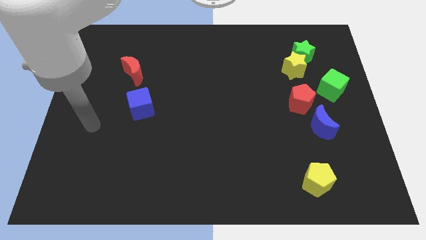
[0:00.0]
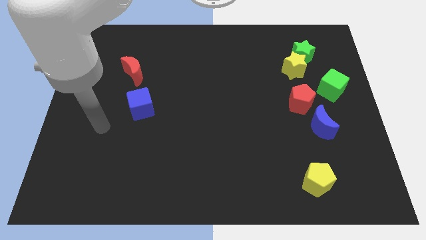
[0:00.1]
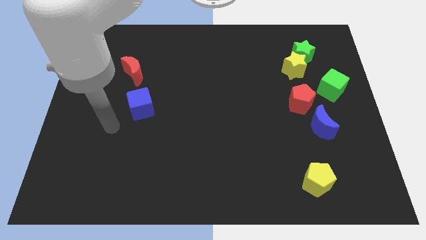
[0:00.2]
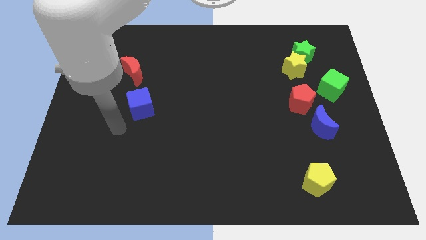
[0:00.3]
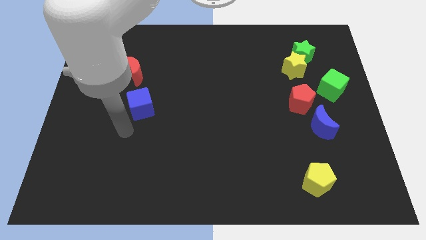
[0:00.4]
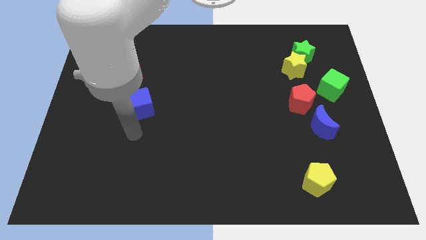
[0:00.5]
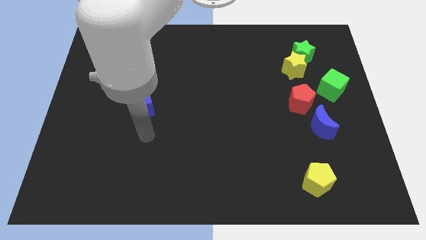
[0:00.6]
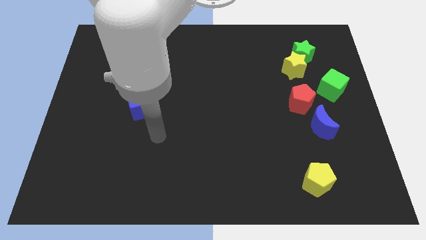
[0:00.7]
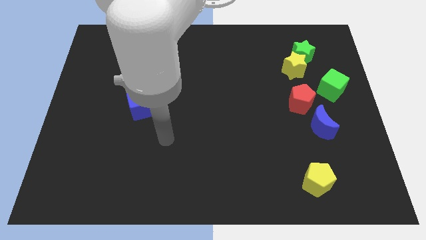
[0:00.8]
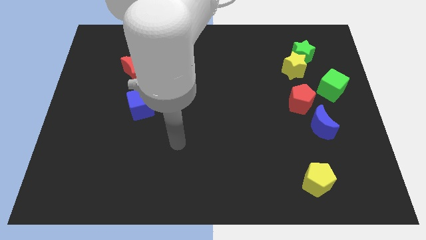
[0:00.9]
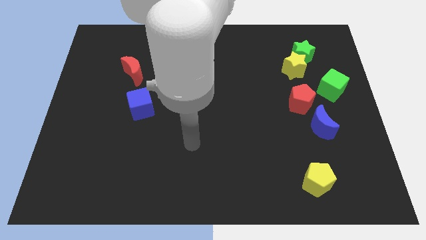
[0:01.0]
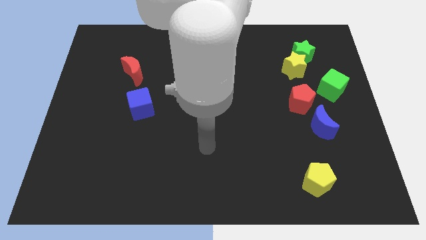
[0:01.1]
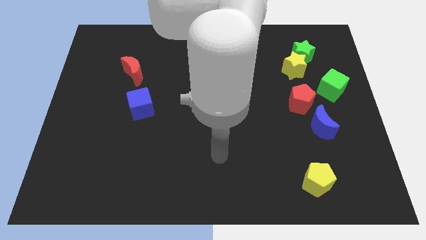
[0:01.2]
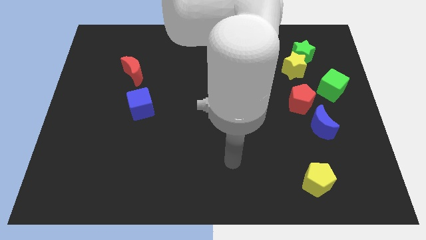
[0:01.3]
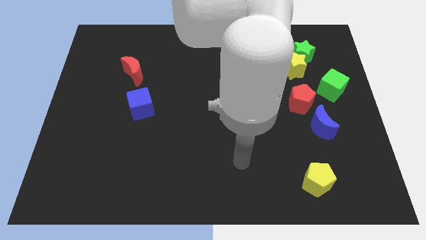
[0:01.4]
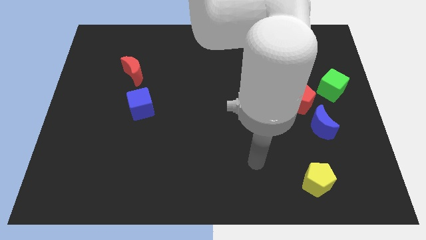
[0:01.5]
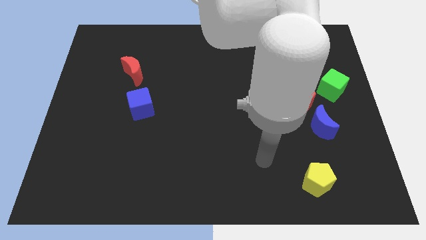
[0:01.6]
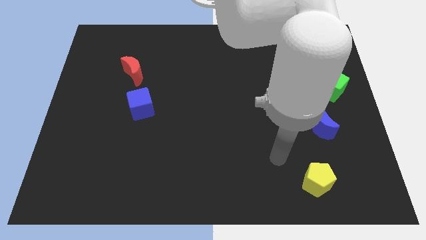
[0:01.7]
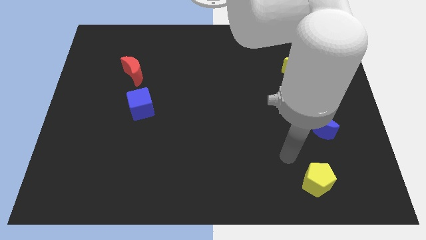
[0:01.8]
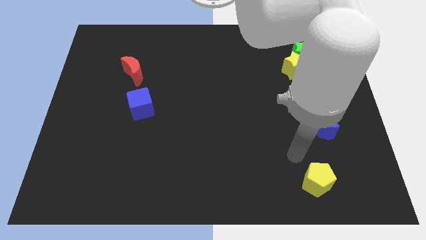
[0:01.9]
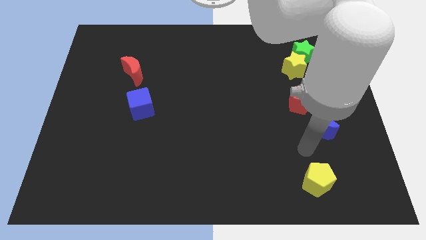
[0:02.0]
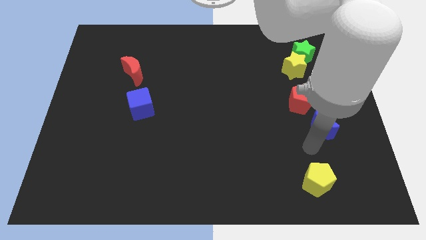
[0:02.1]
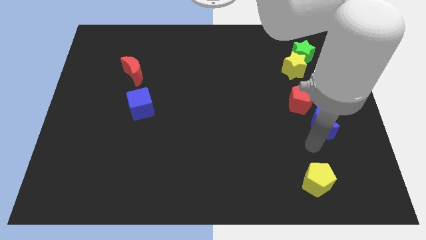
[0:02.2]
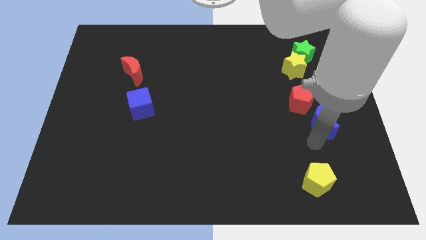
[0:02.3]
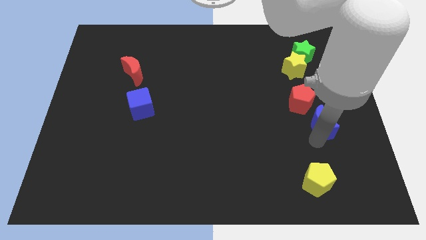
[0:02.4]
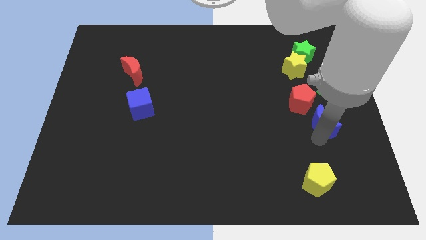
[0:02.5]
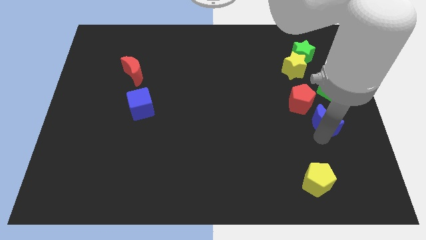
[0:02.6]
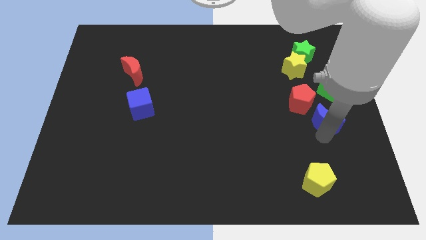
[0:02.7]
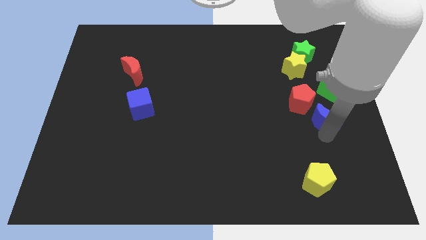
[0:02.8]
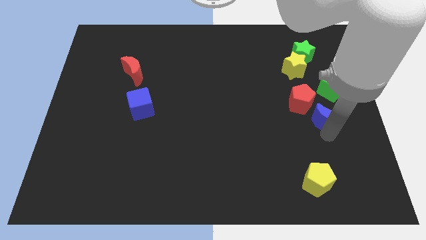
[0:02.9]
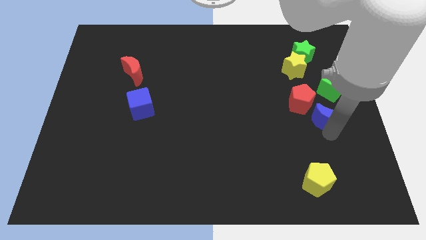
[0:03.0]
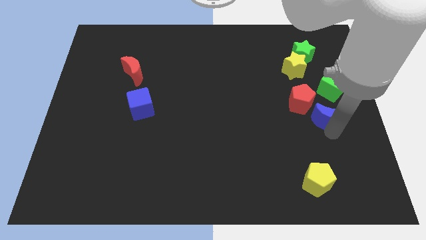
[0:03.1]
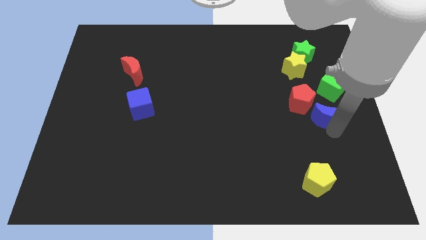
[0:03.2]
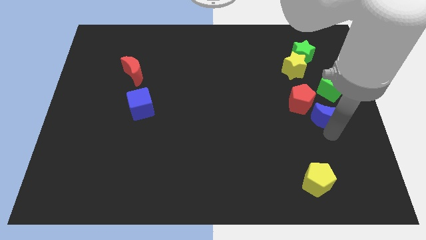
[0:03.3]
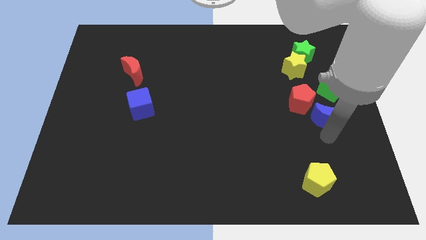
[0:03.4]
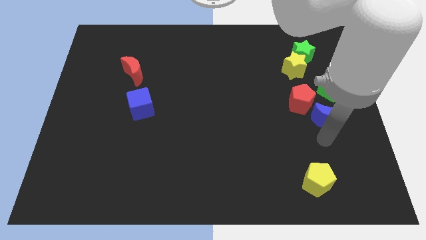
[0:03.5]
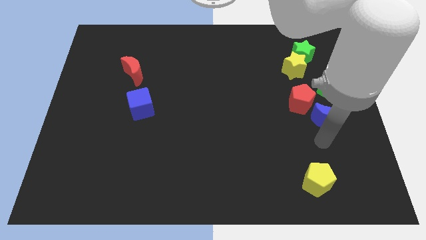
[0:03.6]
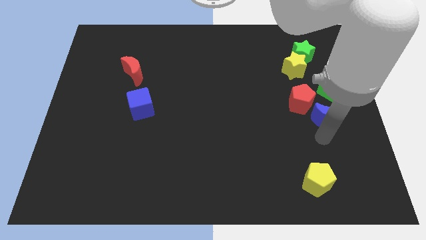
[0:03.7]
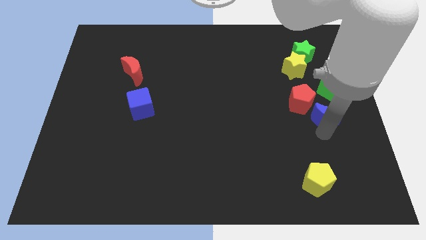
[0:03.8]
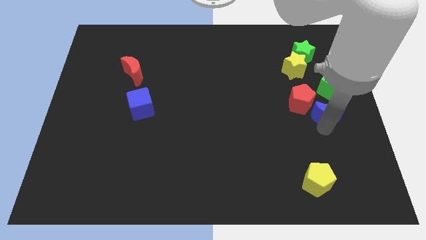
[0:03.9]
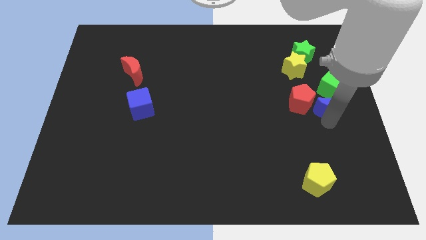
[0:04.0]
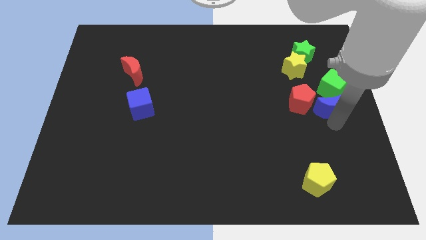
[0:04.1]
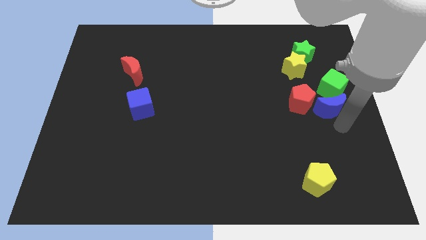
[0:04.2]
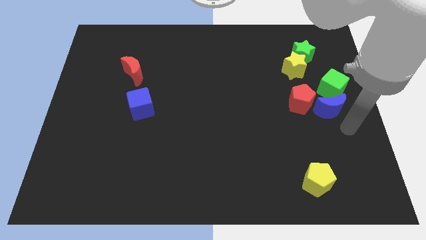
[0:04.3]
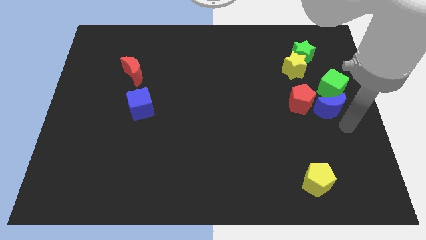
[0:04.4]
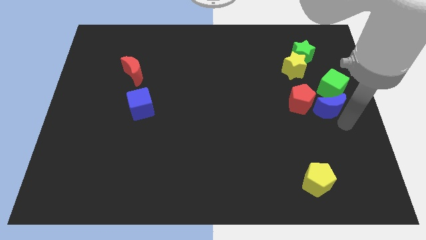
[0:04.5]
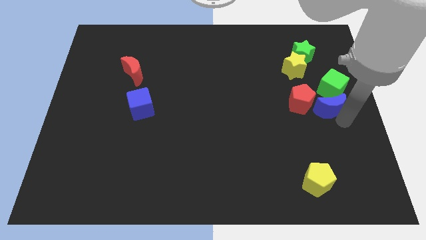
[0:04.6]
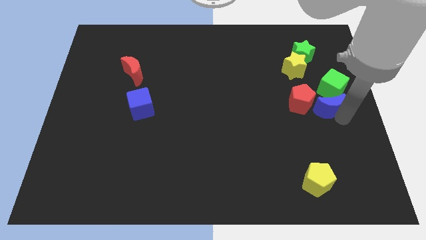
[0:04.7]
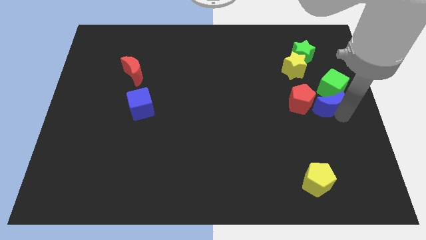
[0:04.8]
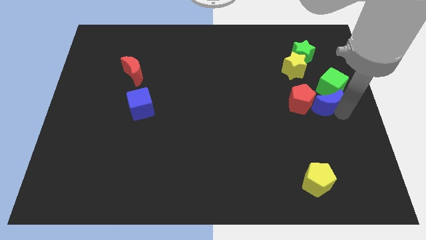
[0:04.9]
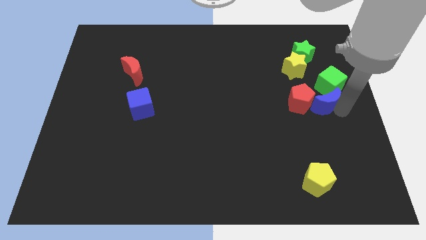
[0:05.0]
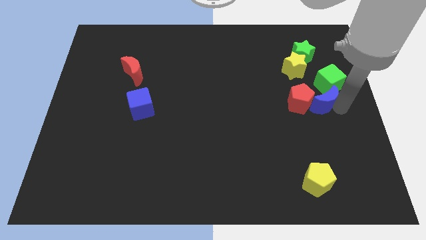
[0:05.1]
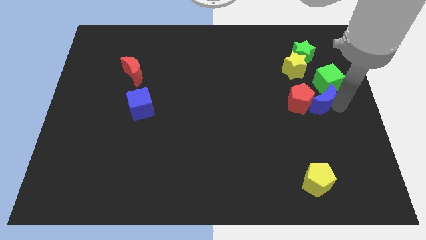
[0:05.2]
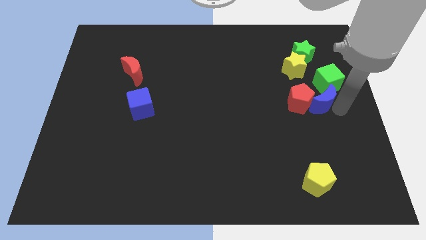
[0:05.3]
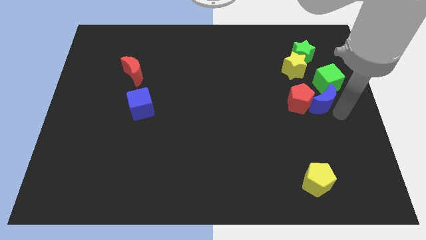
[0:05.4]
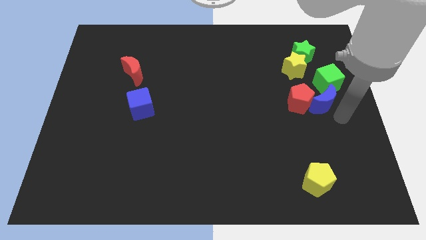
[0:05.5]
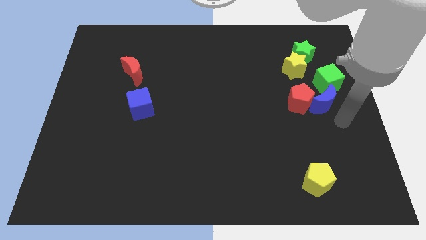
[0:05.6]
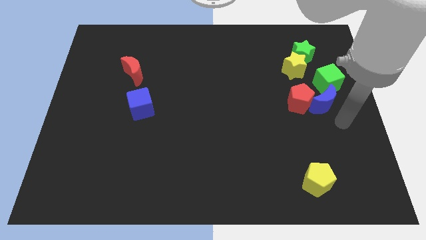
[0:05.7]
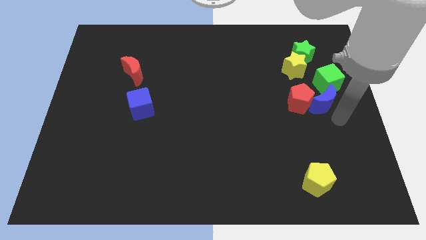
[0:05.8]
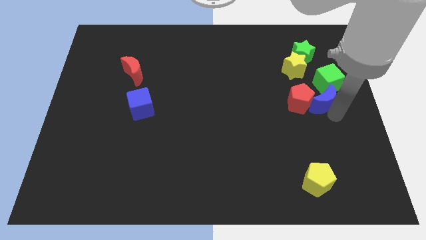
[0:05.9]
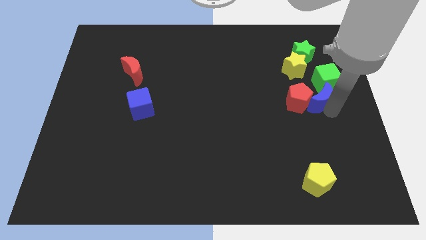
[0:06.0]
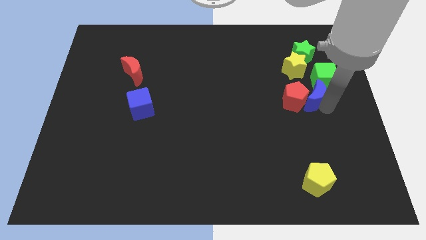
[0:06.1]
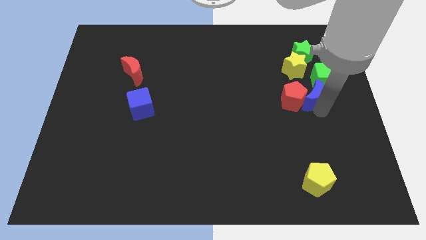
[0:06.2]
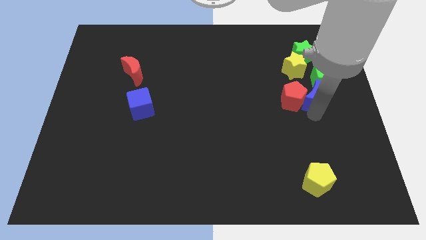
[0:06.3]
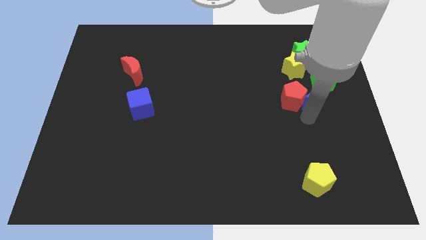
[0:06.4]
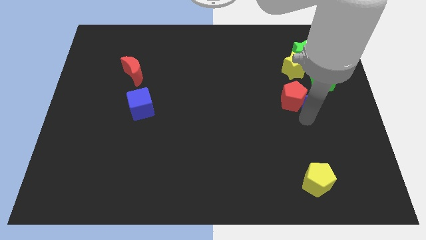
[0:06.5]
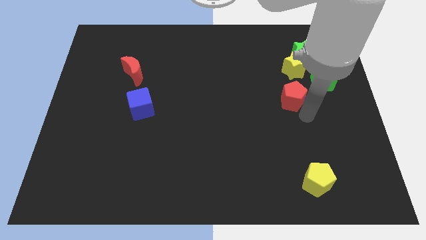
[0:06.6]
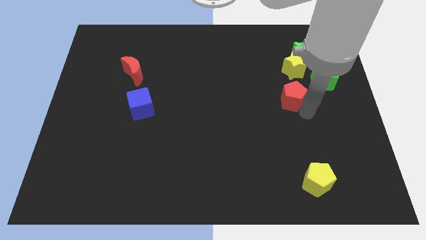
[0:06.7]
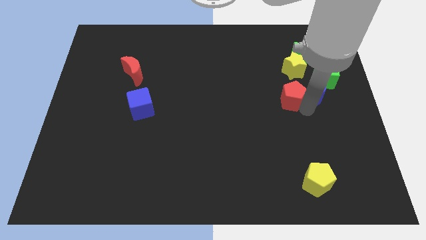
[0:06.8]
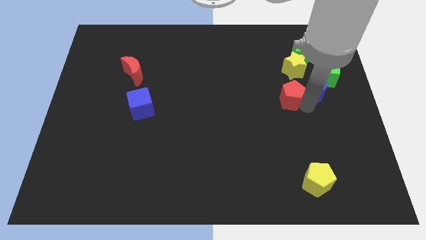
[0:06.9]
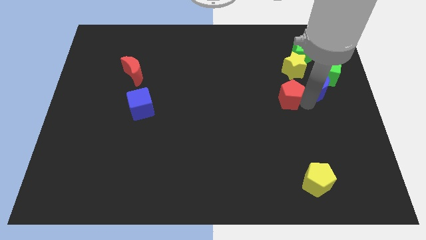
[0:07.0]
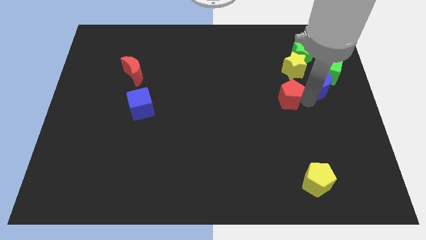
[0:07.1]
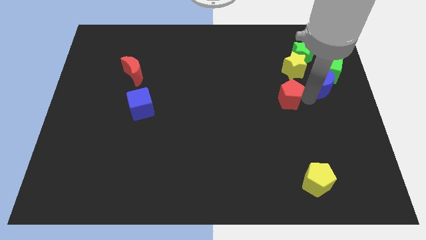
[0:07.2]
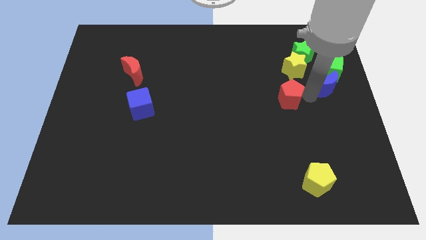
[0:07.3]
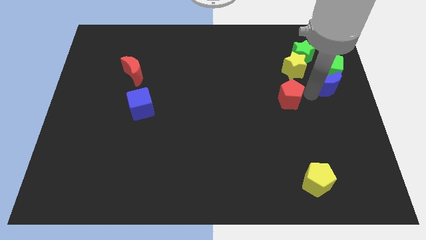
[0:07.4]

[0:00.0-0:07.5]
slide the blue moon diagonally down and to the right of the green star
